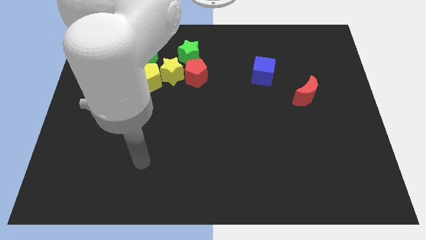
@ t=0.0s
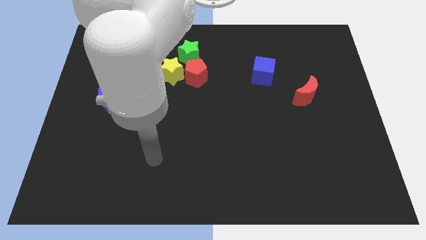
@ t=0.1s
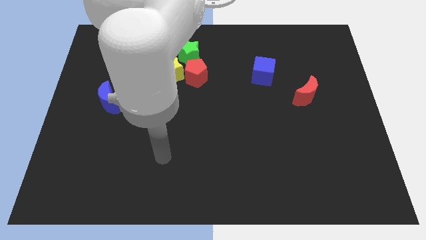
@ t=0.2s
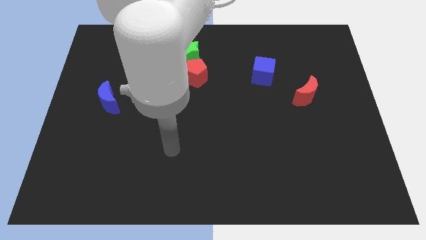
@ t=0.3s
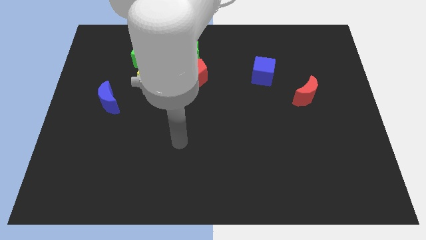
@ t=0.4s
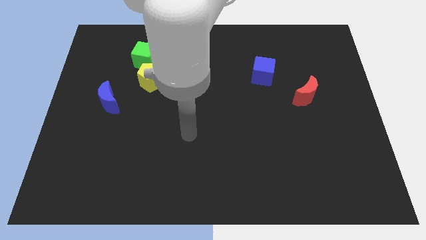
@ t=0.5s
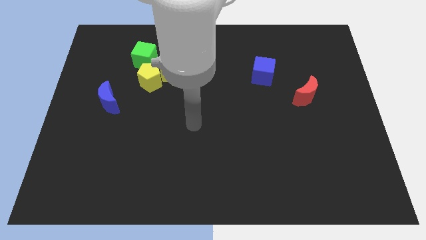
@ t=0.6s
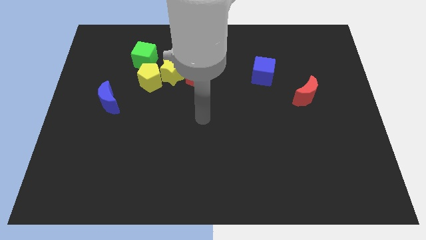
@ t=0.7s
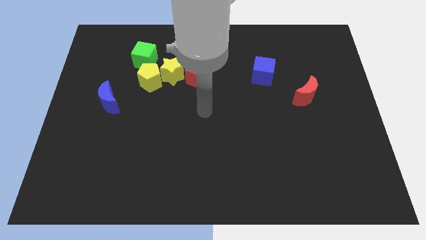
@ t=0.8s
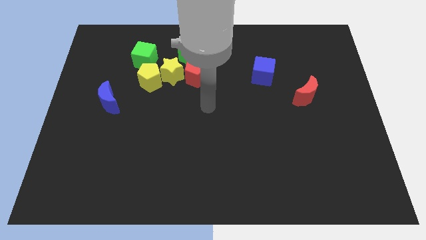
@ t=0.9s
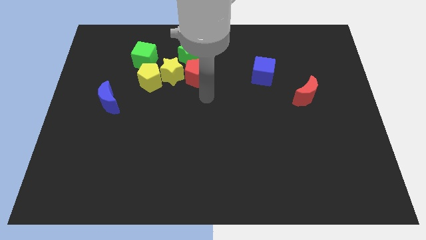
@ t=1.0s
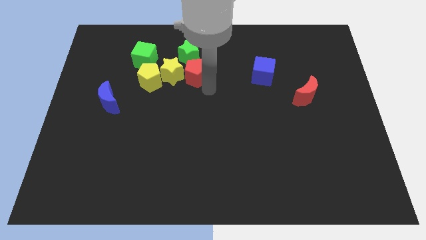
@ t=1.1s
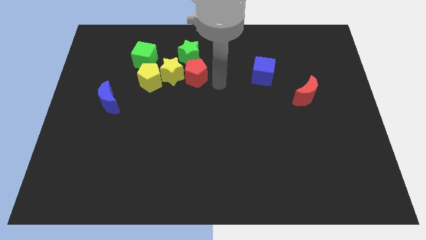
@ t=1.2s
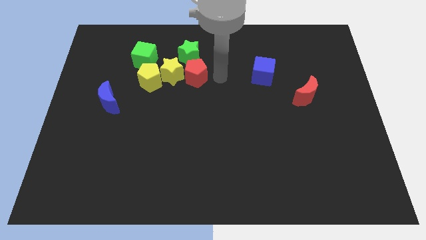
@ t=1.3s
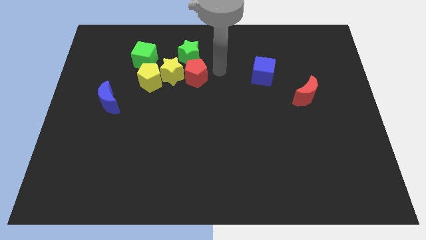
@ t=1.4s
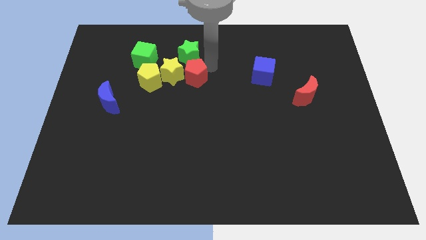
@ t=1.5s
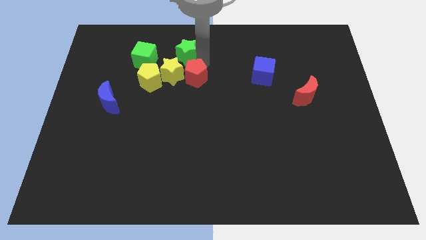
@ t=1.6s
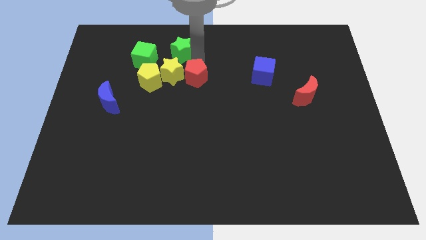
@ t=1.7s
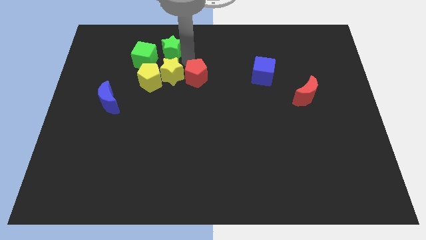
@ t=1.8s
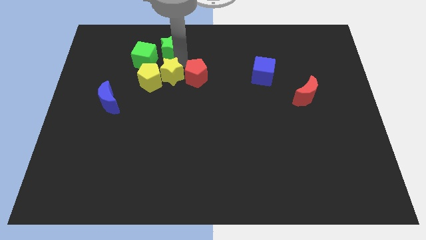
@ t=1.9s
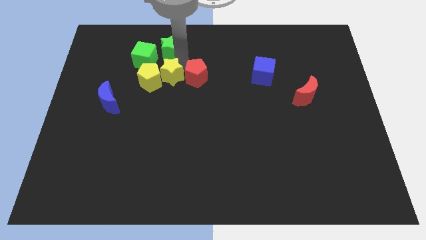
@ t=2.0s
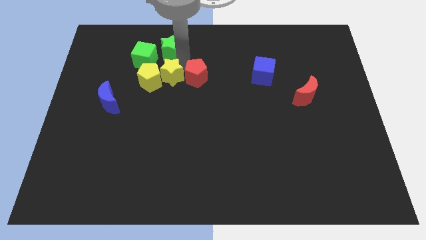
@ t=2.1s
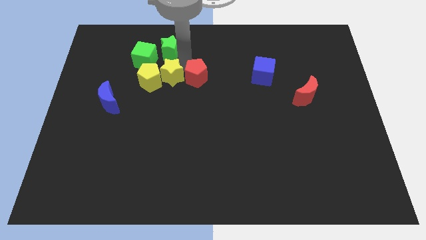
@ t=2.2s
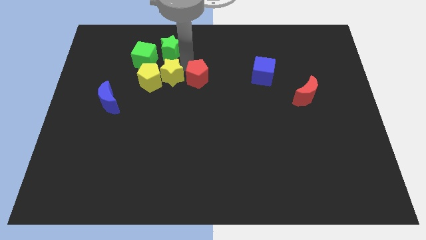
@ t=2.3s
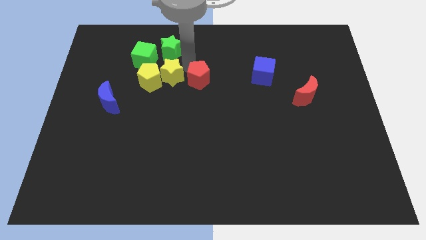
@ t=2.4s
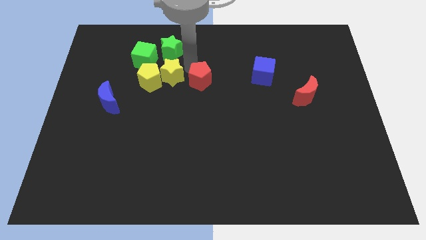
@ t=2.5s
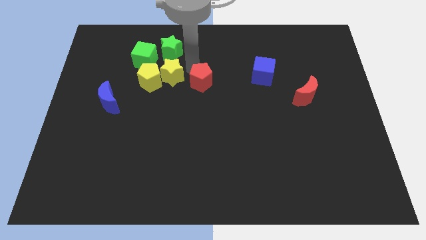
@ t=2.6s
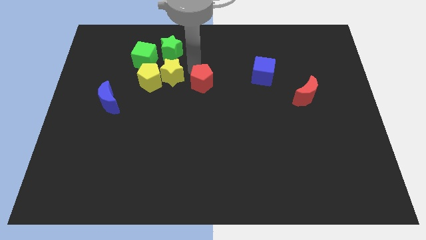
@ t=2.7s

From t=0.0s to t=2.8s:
separate the red pentagon from the yellow star and green star

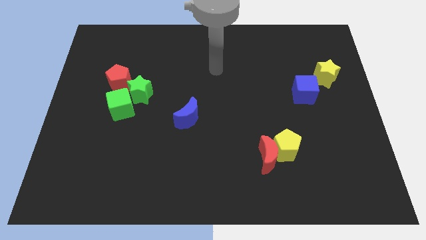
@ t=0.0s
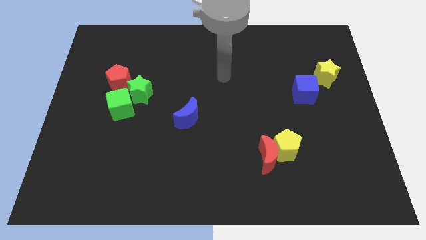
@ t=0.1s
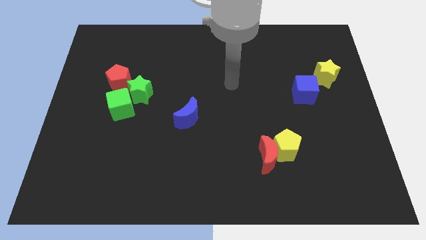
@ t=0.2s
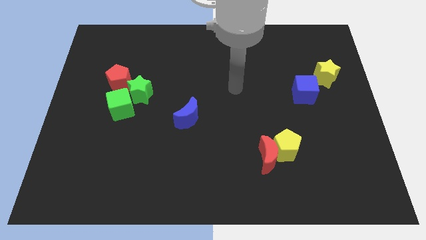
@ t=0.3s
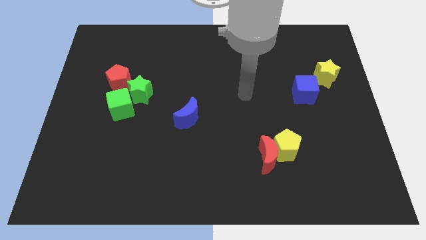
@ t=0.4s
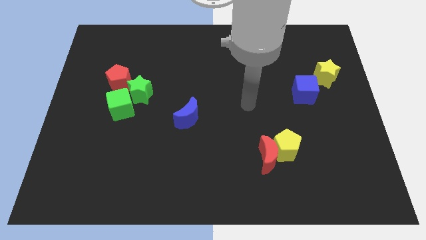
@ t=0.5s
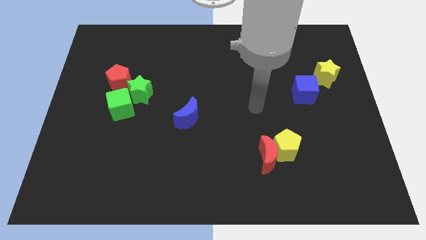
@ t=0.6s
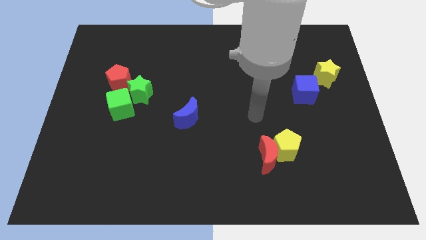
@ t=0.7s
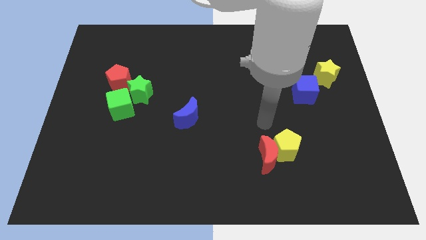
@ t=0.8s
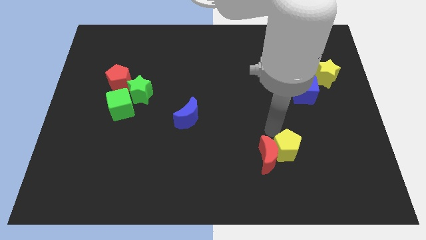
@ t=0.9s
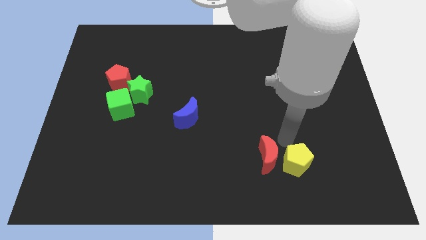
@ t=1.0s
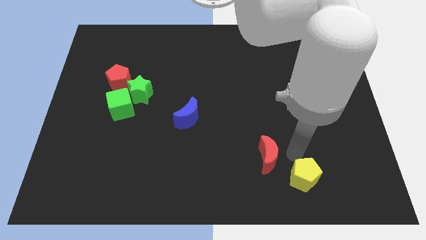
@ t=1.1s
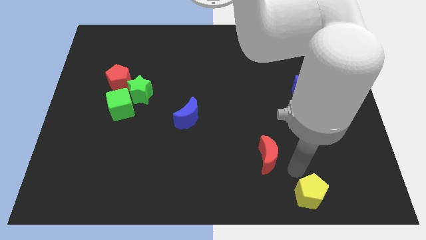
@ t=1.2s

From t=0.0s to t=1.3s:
pull the red moon apart from the yellow pentagon

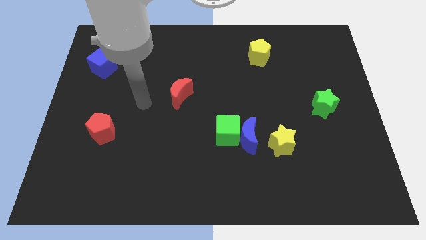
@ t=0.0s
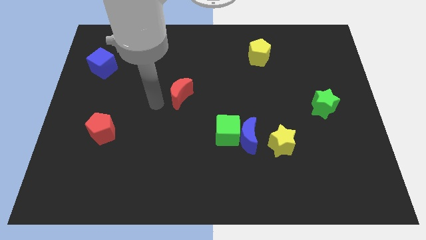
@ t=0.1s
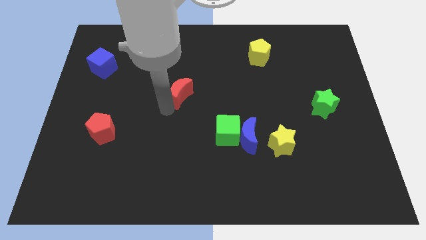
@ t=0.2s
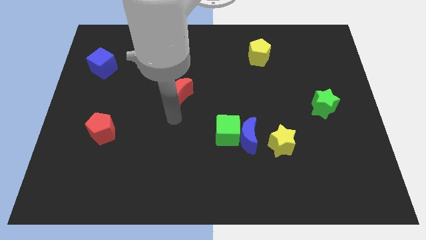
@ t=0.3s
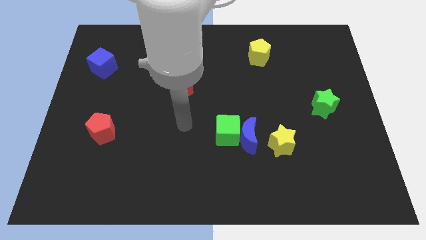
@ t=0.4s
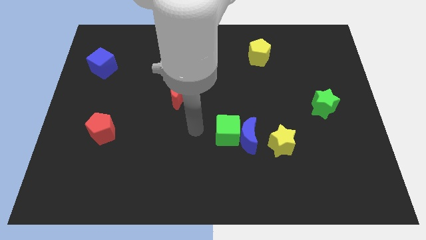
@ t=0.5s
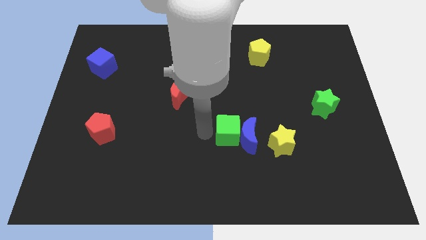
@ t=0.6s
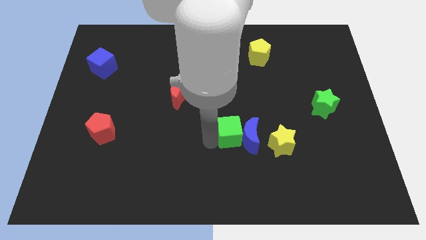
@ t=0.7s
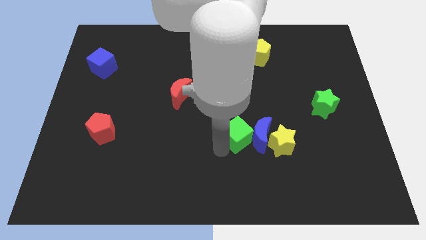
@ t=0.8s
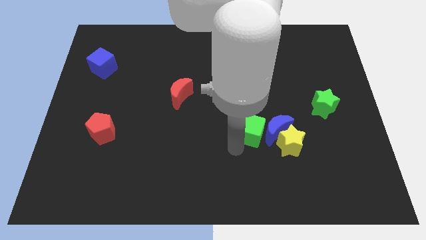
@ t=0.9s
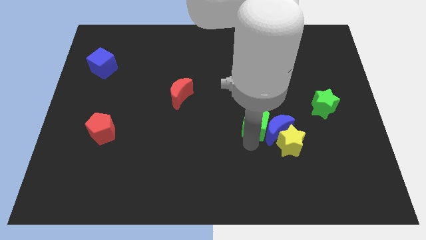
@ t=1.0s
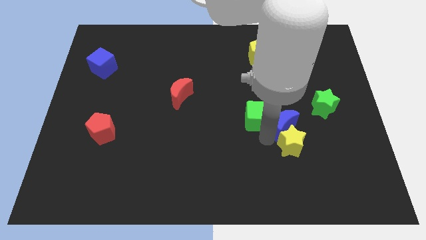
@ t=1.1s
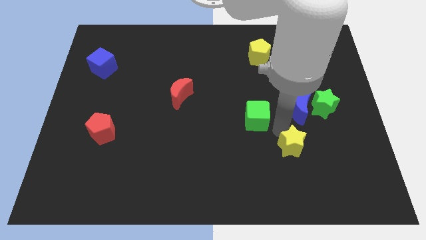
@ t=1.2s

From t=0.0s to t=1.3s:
move the green cube away from the blue moon

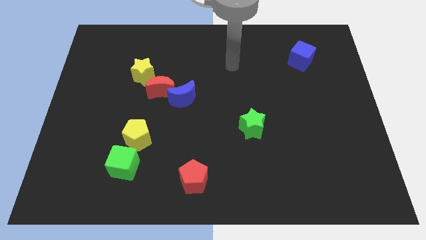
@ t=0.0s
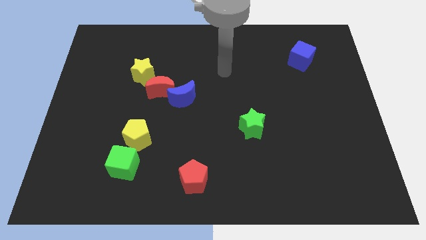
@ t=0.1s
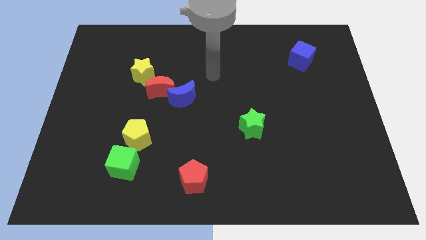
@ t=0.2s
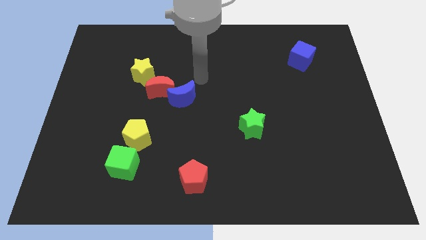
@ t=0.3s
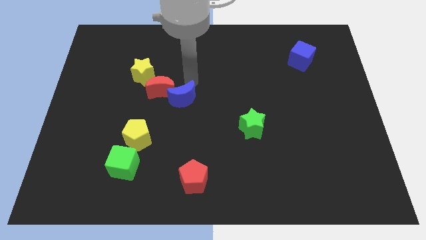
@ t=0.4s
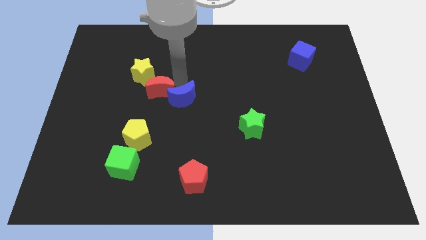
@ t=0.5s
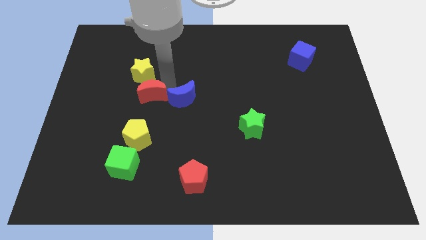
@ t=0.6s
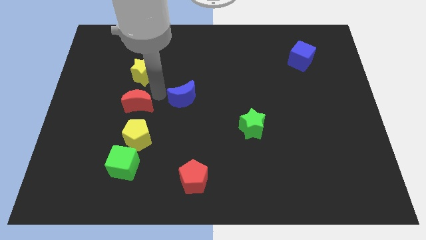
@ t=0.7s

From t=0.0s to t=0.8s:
separate the blue moon from the red moon

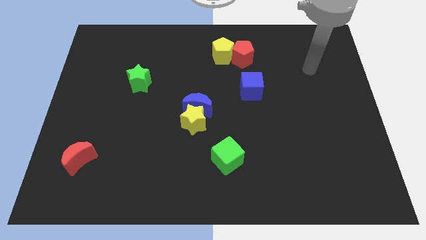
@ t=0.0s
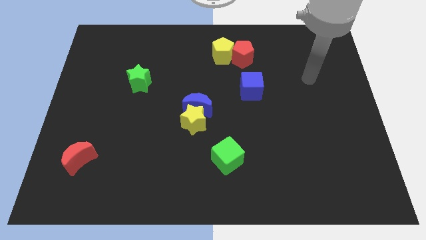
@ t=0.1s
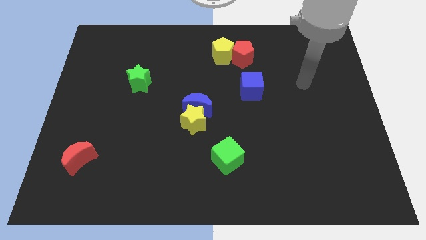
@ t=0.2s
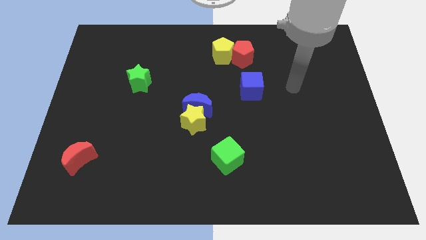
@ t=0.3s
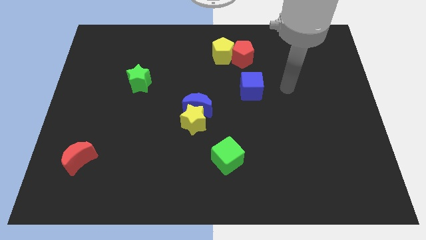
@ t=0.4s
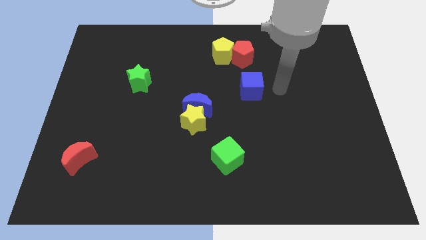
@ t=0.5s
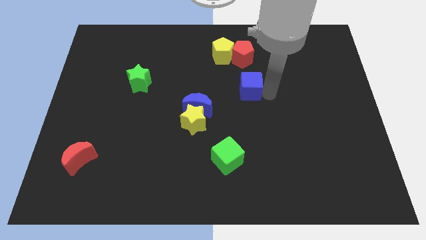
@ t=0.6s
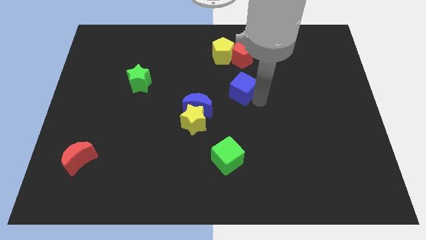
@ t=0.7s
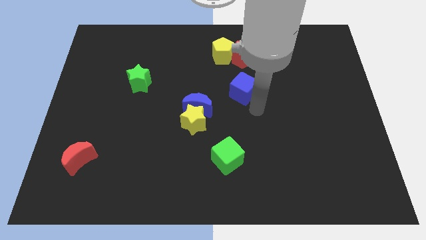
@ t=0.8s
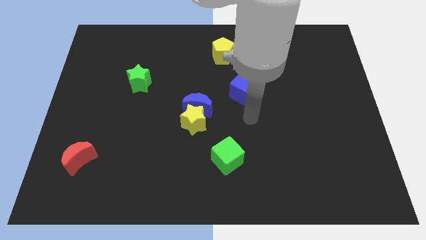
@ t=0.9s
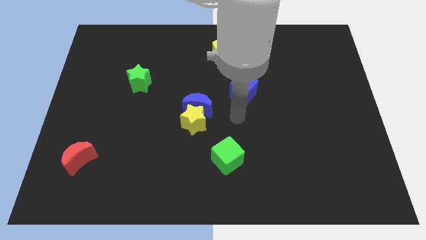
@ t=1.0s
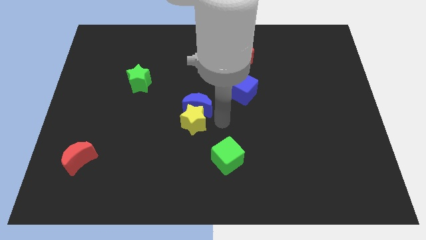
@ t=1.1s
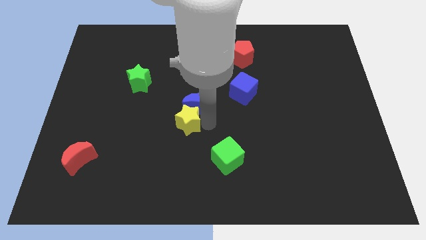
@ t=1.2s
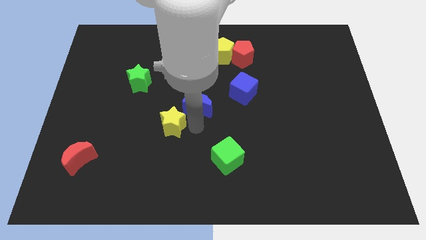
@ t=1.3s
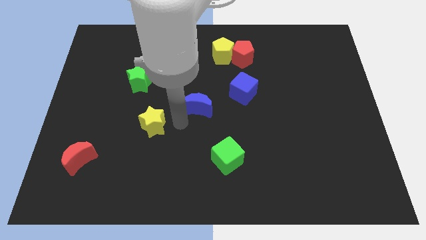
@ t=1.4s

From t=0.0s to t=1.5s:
pull the blue moon apart from the yellow star

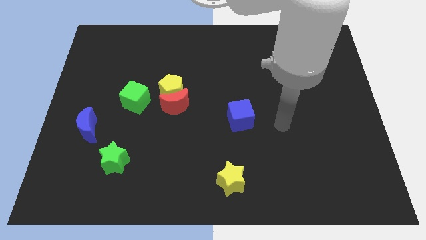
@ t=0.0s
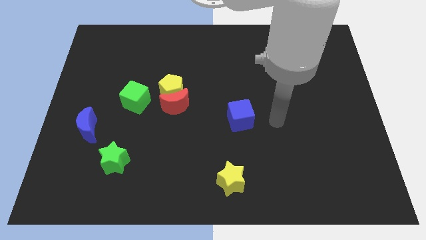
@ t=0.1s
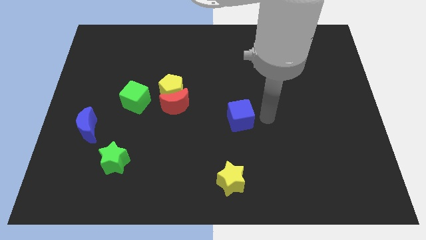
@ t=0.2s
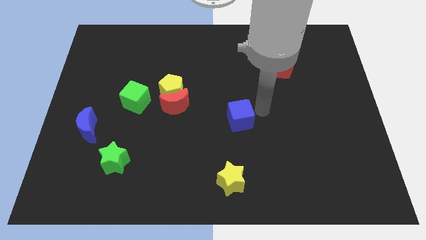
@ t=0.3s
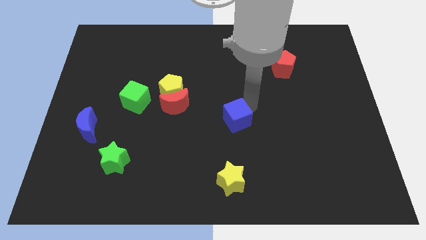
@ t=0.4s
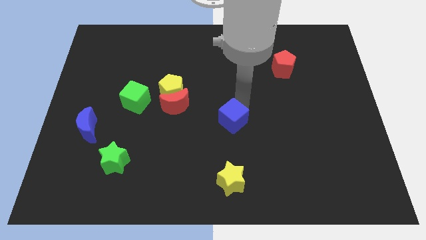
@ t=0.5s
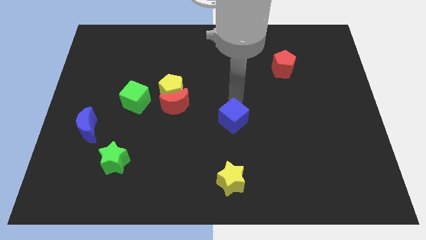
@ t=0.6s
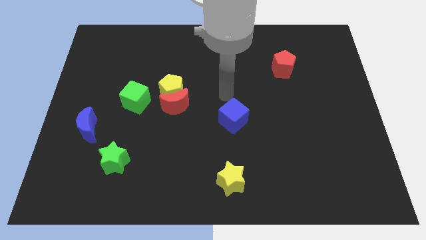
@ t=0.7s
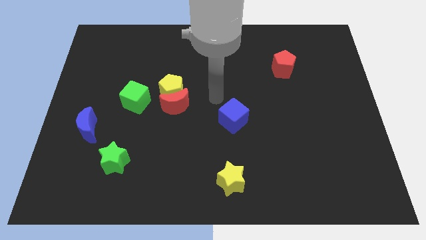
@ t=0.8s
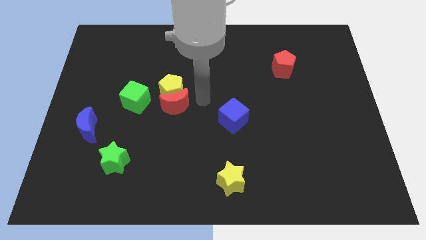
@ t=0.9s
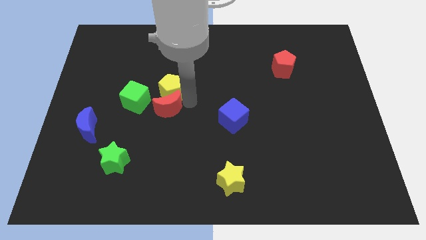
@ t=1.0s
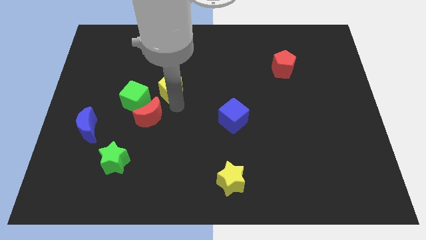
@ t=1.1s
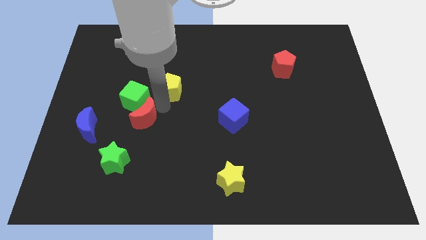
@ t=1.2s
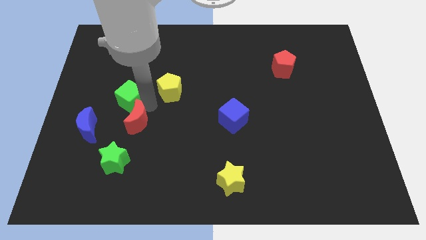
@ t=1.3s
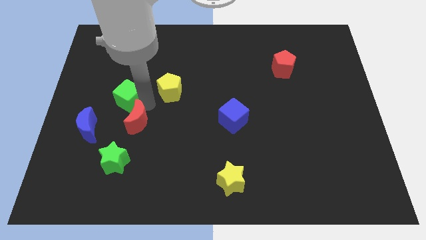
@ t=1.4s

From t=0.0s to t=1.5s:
separate the yellow pentagon from the red moon and green cube
